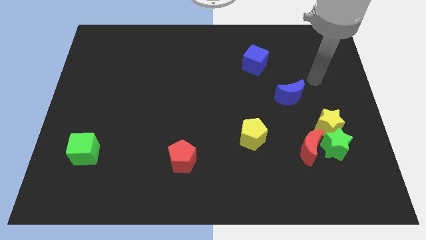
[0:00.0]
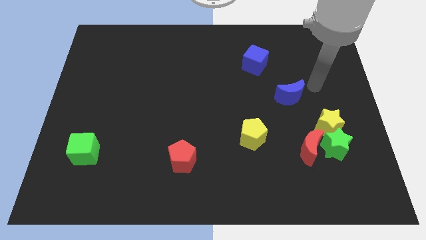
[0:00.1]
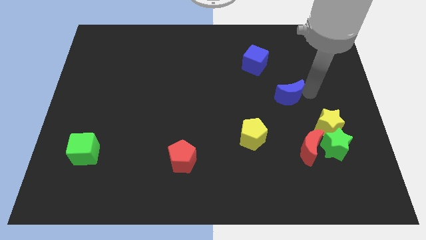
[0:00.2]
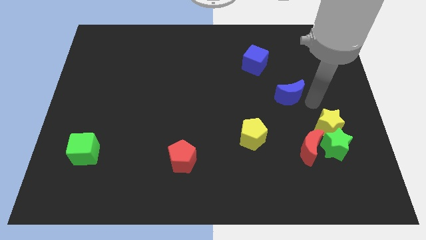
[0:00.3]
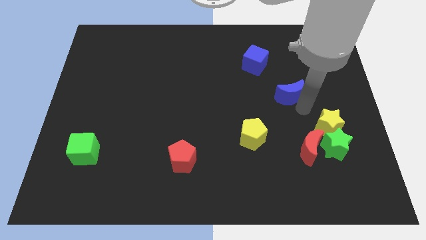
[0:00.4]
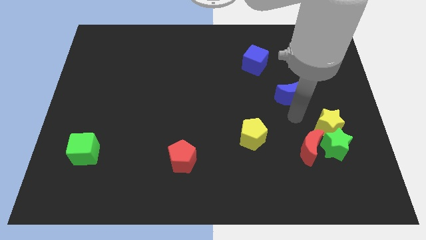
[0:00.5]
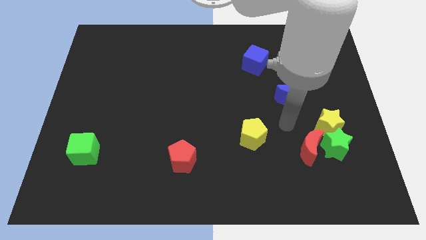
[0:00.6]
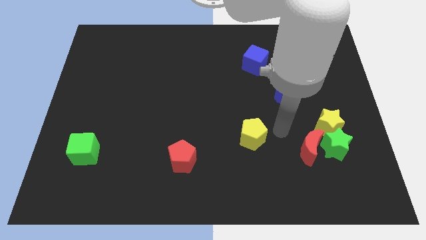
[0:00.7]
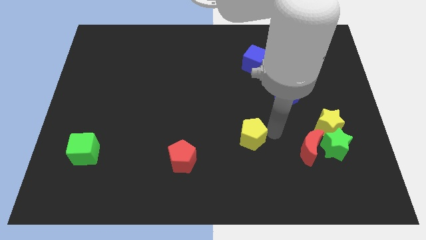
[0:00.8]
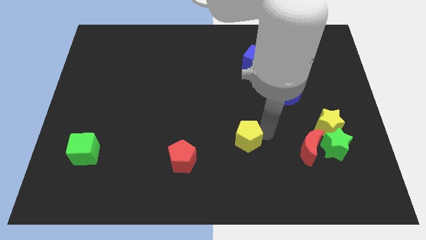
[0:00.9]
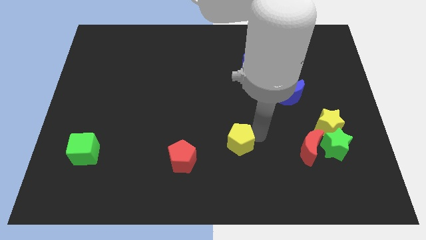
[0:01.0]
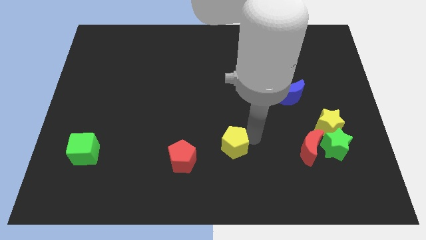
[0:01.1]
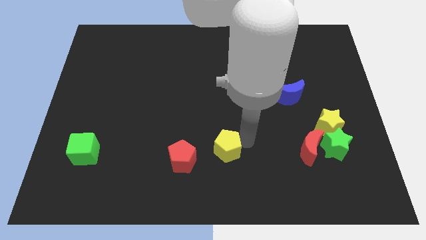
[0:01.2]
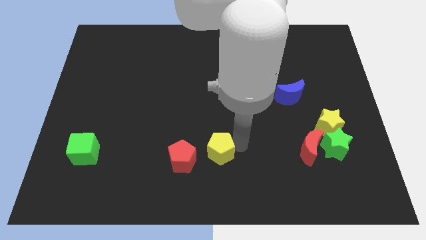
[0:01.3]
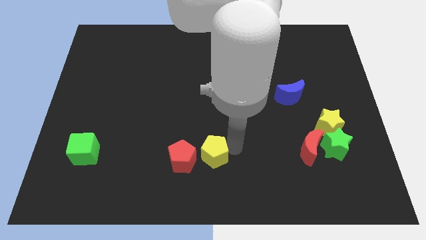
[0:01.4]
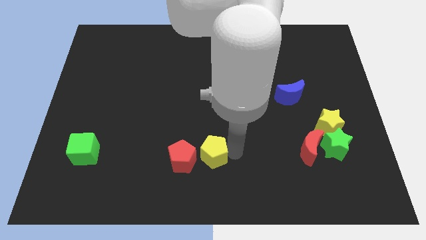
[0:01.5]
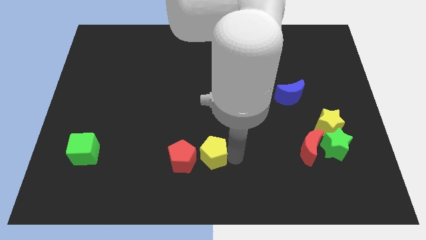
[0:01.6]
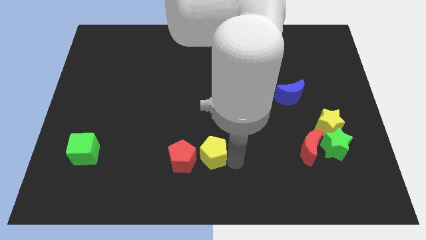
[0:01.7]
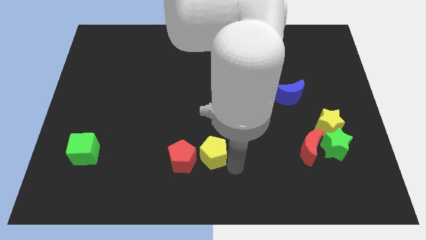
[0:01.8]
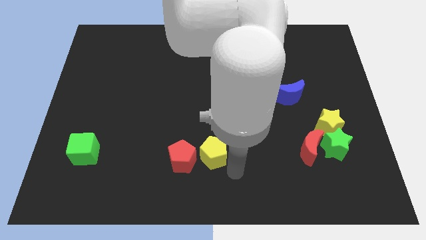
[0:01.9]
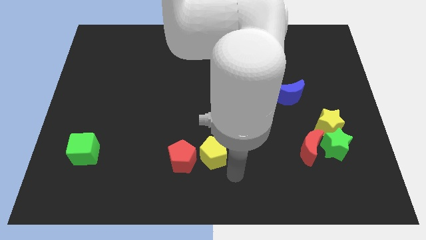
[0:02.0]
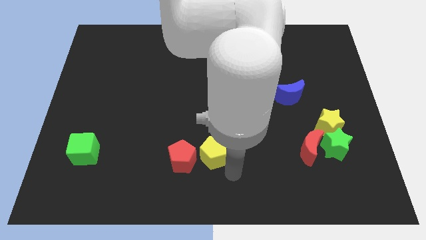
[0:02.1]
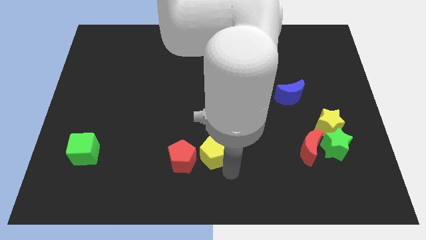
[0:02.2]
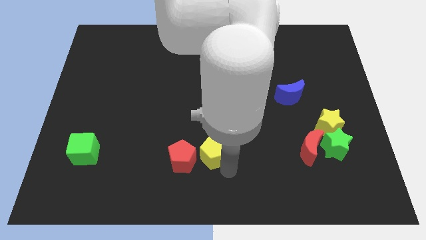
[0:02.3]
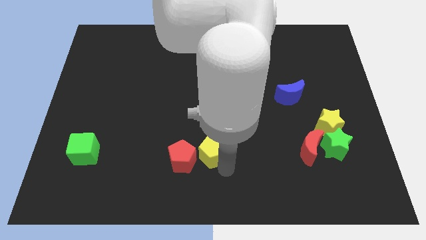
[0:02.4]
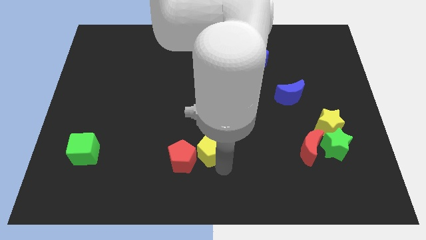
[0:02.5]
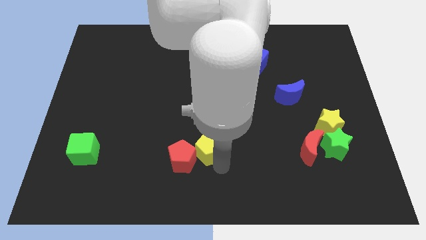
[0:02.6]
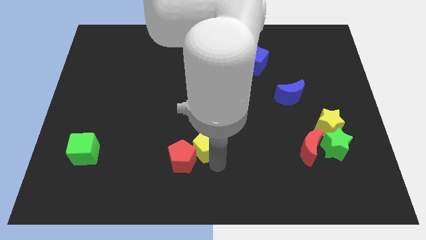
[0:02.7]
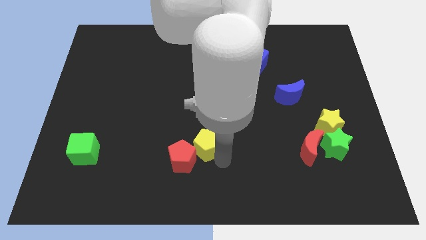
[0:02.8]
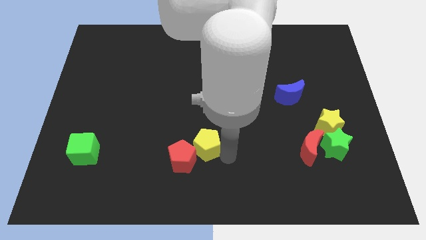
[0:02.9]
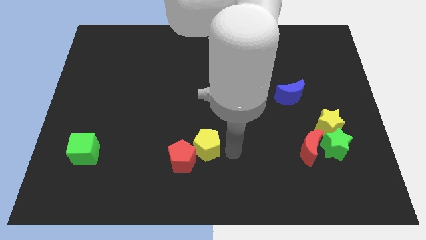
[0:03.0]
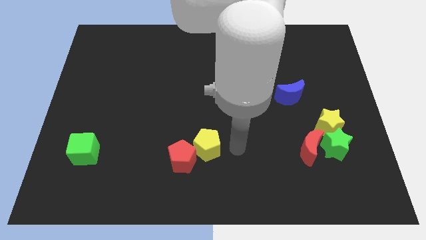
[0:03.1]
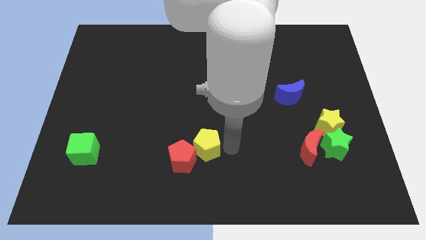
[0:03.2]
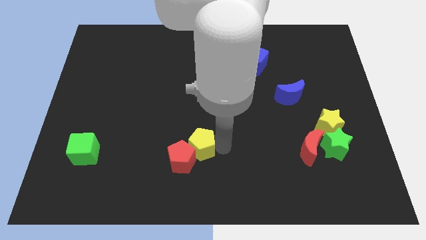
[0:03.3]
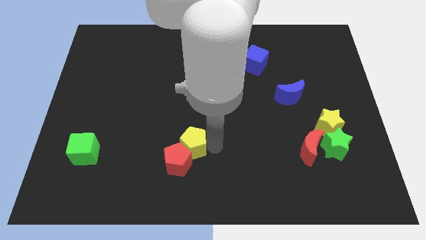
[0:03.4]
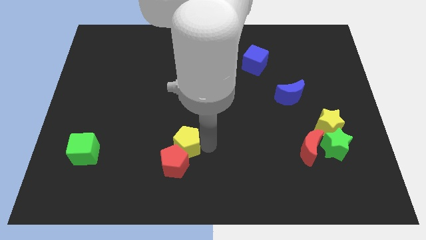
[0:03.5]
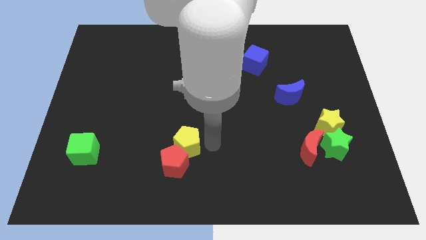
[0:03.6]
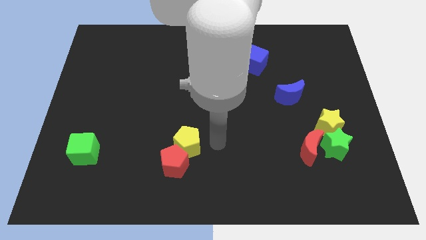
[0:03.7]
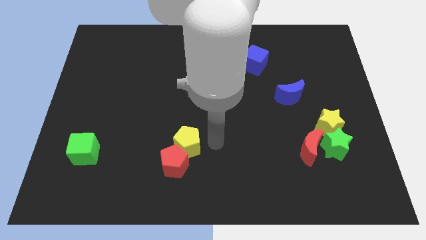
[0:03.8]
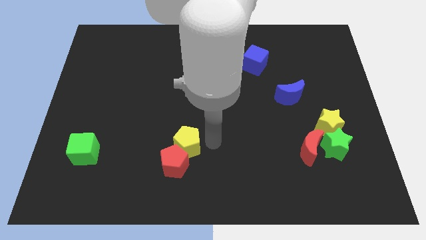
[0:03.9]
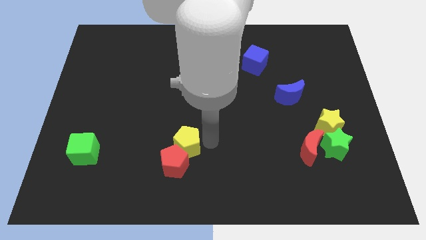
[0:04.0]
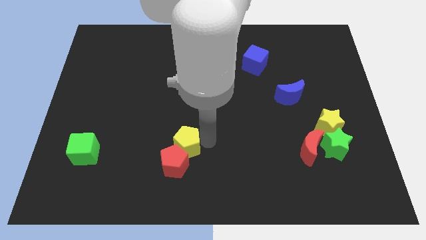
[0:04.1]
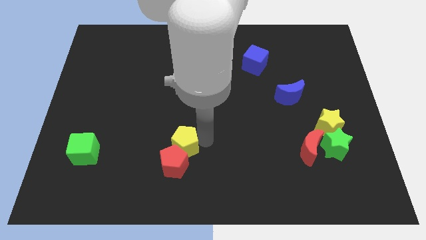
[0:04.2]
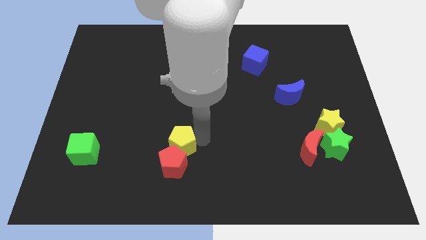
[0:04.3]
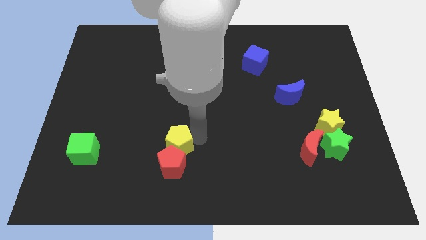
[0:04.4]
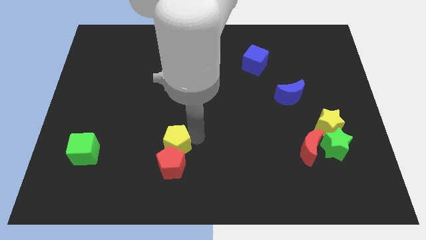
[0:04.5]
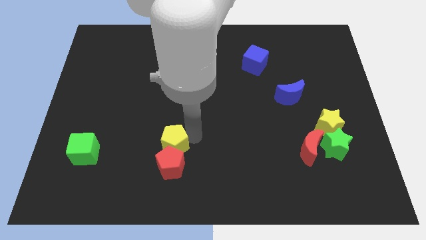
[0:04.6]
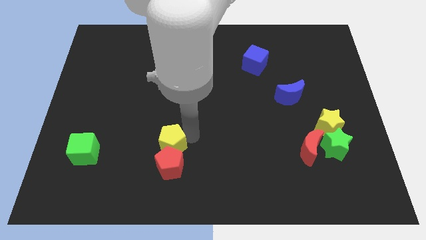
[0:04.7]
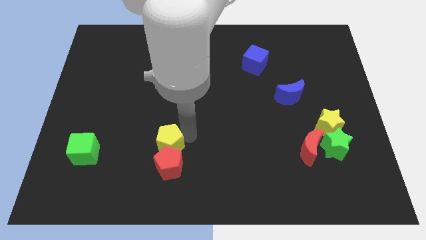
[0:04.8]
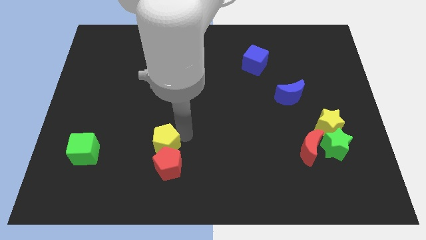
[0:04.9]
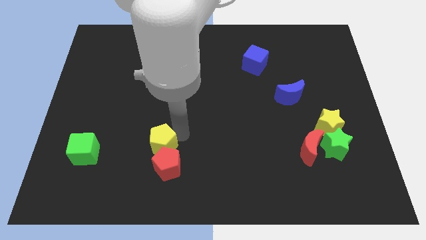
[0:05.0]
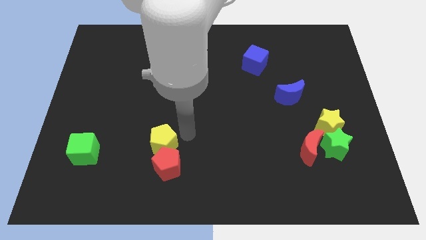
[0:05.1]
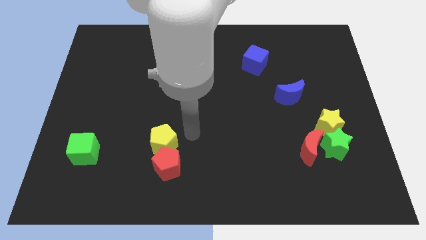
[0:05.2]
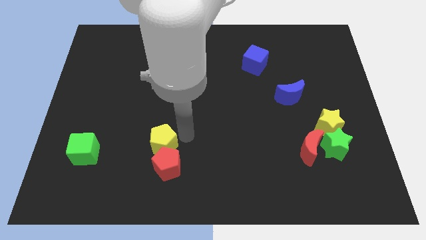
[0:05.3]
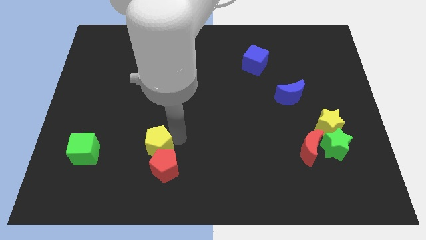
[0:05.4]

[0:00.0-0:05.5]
put the yellow pentagon to the right side of the green cube

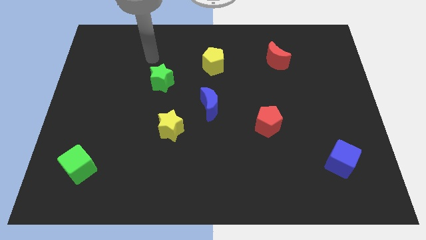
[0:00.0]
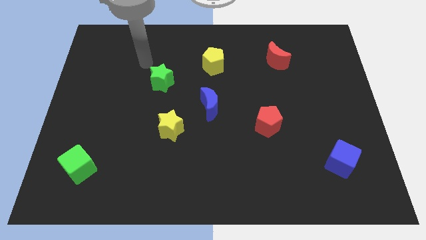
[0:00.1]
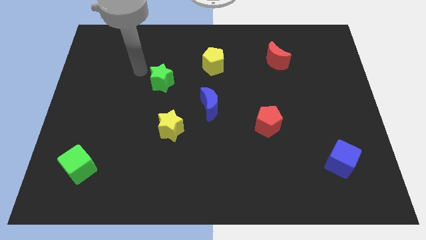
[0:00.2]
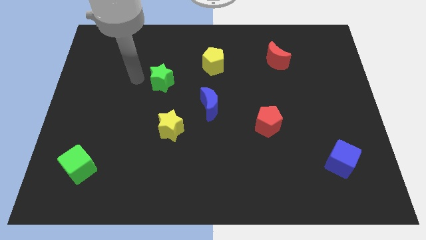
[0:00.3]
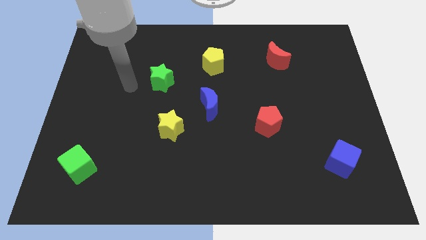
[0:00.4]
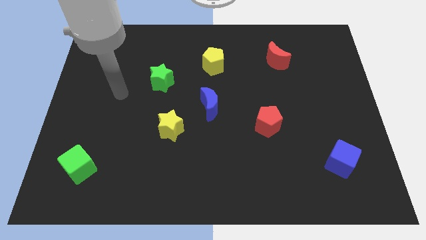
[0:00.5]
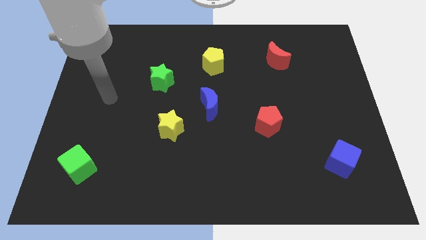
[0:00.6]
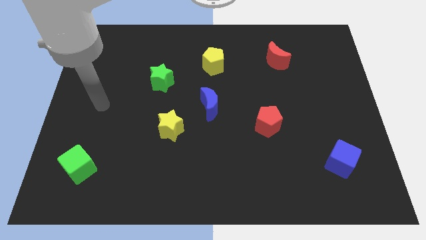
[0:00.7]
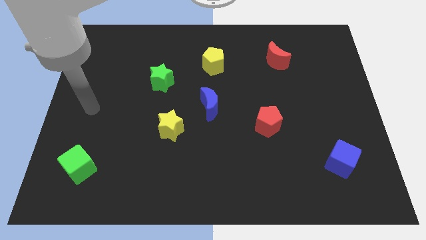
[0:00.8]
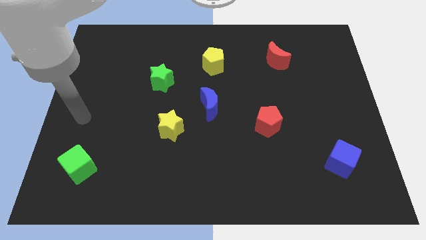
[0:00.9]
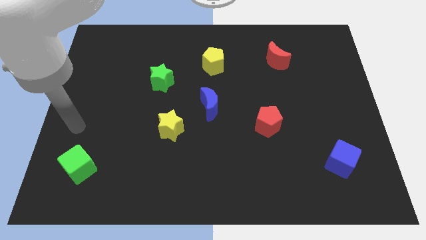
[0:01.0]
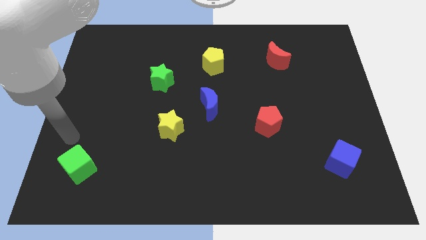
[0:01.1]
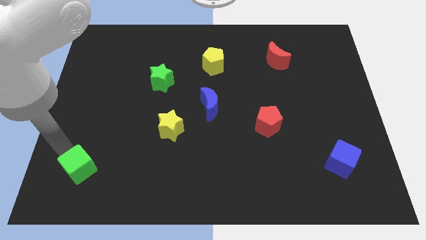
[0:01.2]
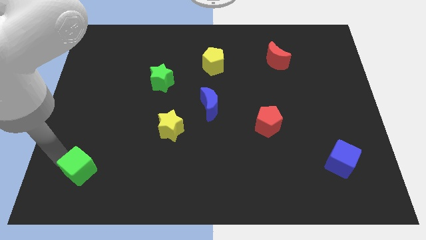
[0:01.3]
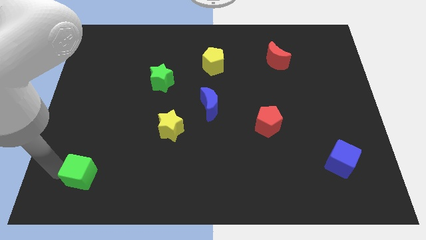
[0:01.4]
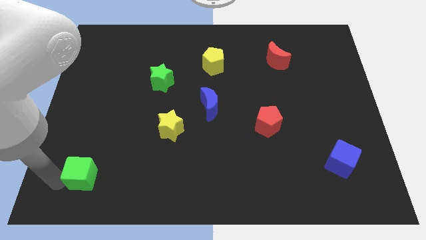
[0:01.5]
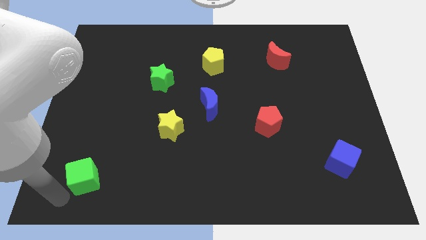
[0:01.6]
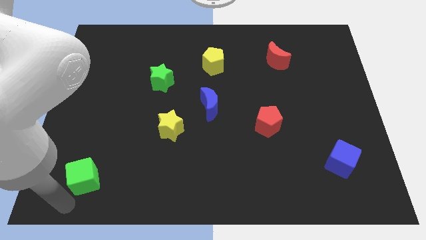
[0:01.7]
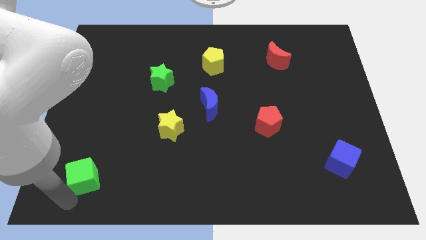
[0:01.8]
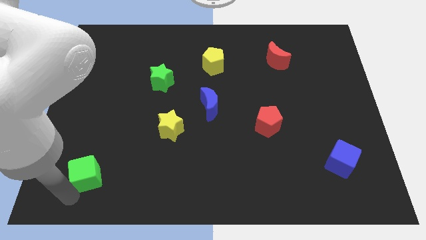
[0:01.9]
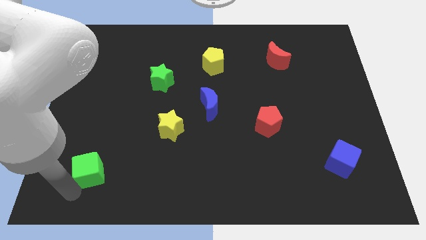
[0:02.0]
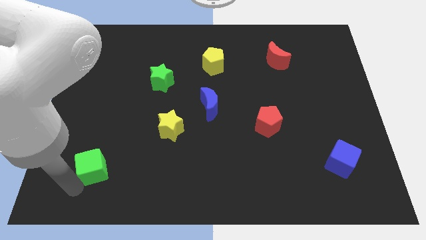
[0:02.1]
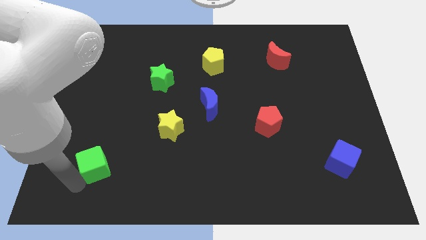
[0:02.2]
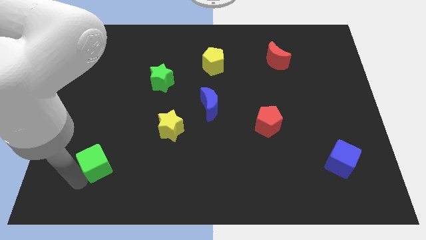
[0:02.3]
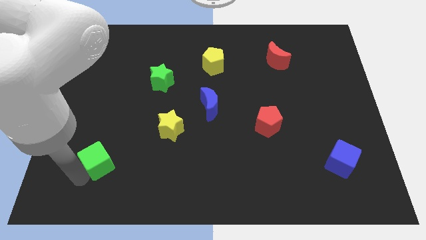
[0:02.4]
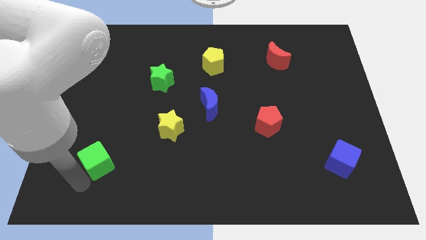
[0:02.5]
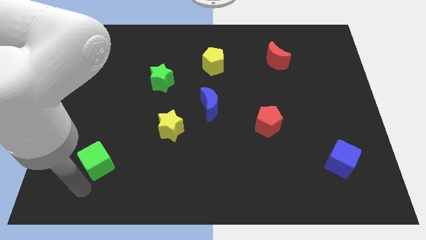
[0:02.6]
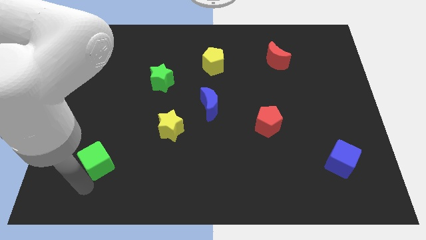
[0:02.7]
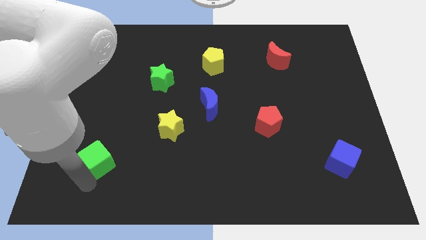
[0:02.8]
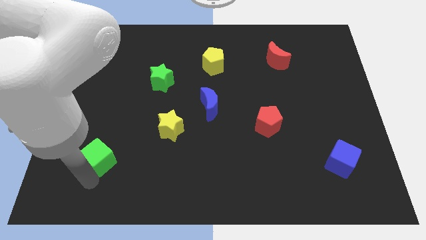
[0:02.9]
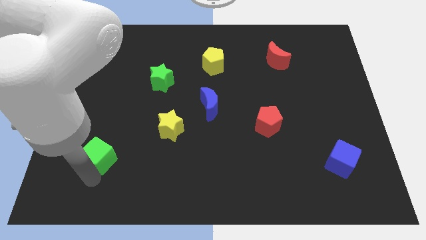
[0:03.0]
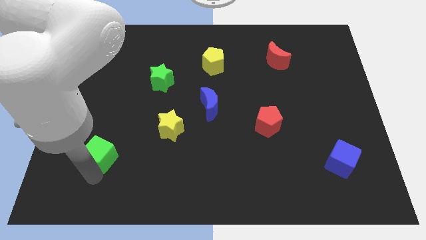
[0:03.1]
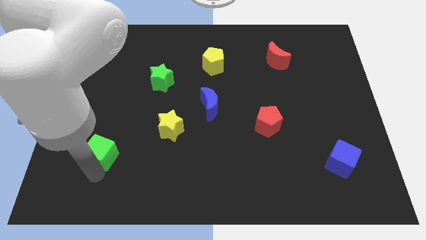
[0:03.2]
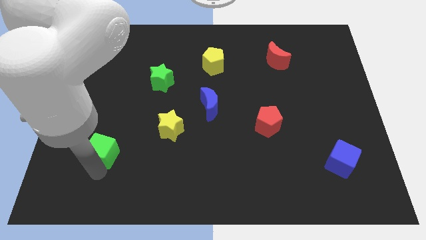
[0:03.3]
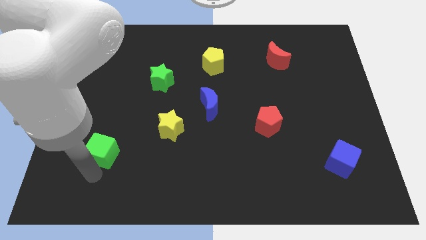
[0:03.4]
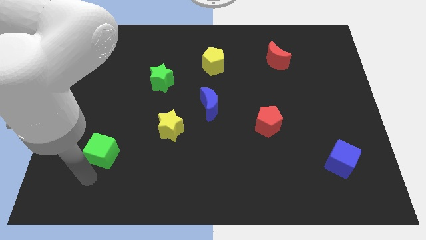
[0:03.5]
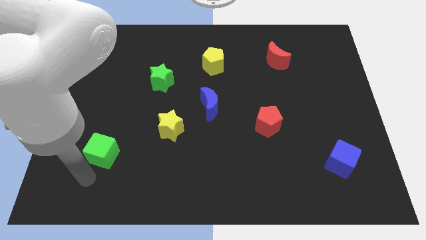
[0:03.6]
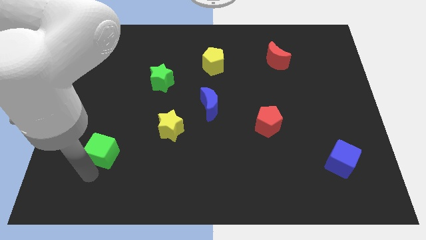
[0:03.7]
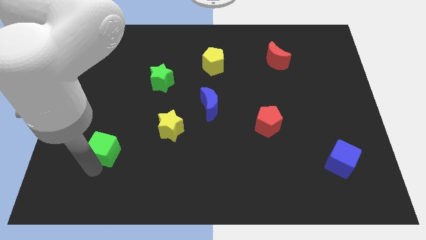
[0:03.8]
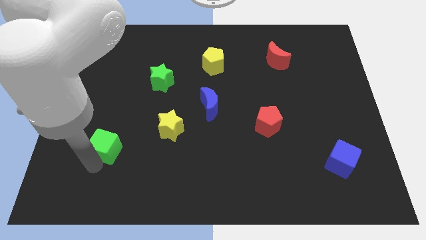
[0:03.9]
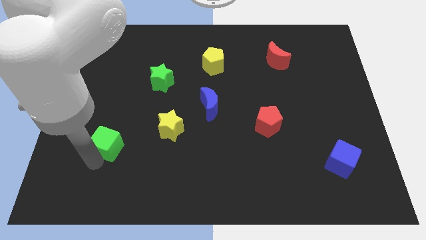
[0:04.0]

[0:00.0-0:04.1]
slide the green cube to the left of the yellow star
